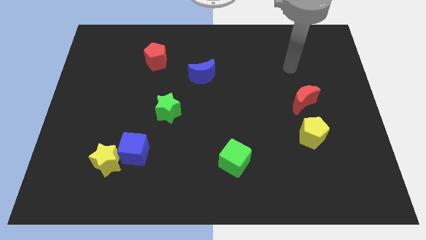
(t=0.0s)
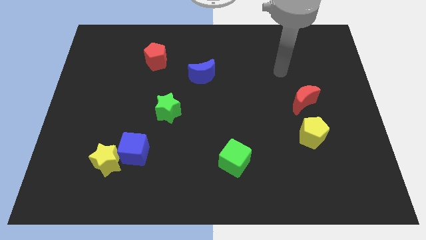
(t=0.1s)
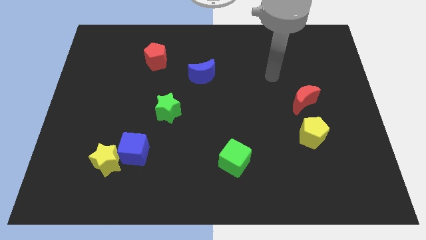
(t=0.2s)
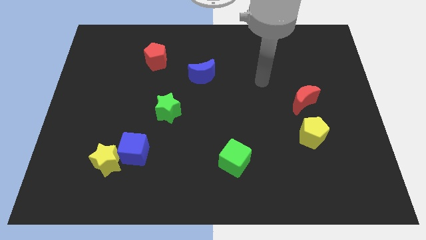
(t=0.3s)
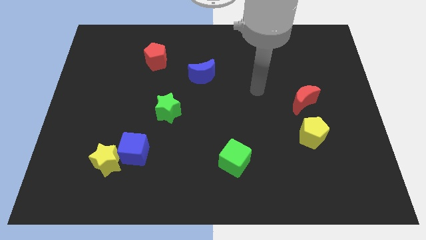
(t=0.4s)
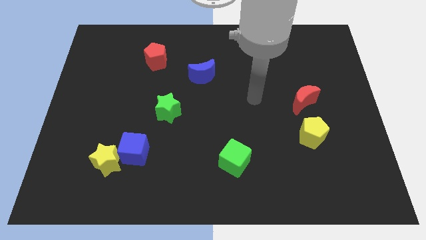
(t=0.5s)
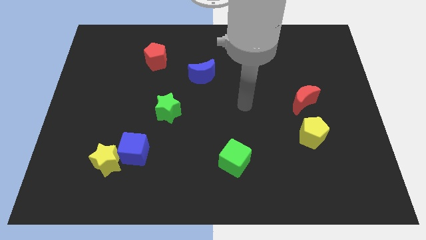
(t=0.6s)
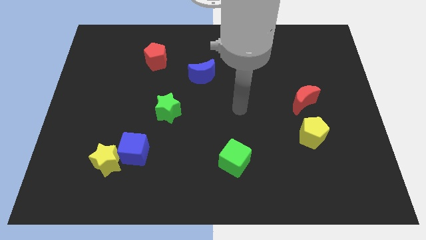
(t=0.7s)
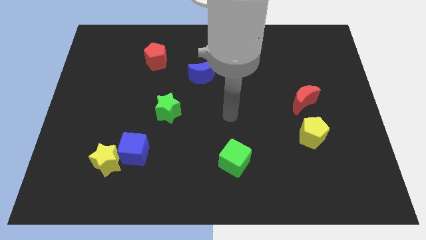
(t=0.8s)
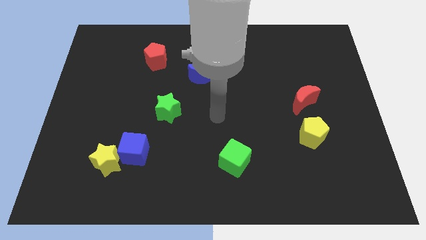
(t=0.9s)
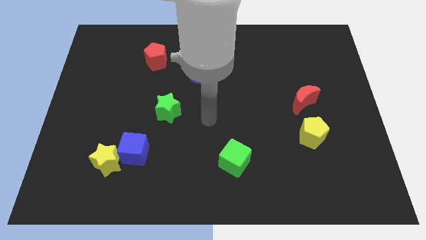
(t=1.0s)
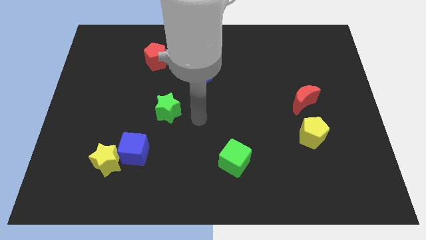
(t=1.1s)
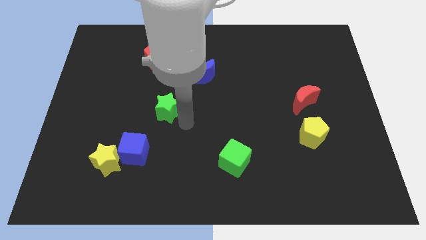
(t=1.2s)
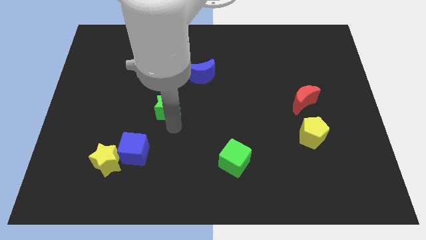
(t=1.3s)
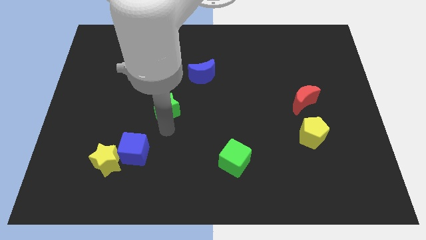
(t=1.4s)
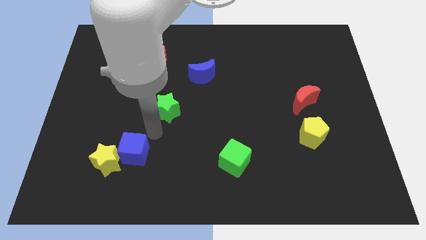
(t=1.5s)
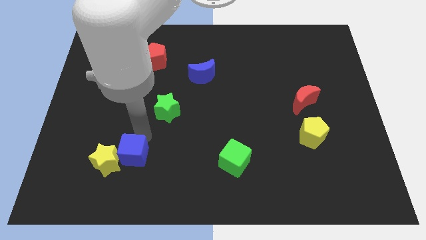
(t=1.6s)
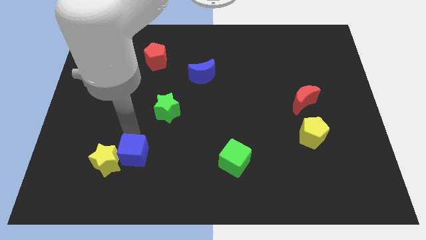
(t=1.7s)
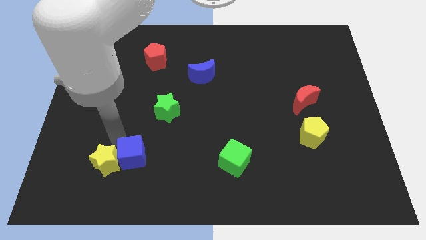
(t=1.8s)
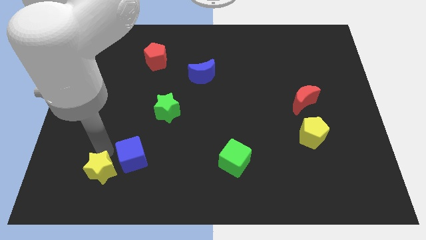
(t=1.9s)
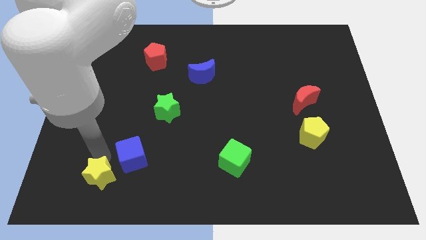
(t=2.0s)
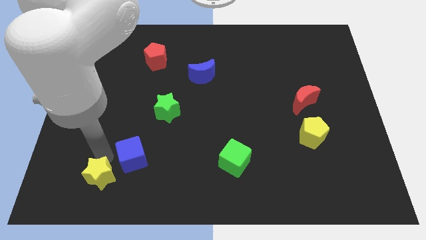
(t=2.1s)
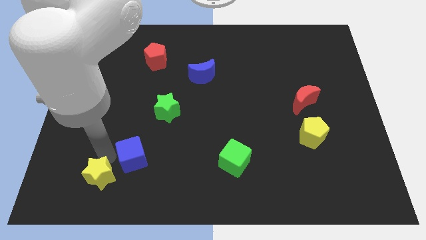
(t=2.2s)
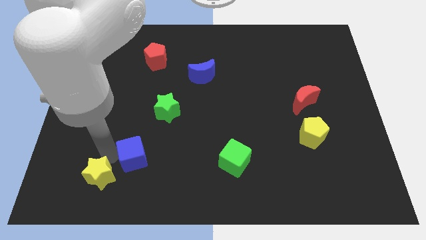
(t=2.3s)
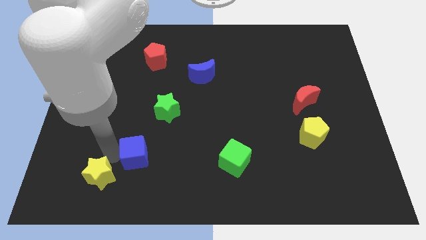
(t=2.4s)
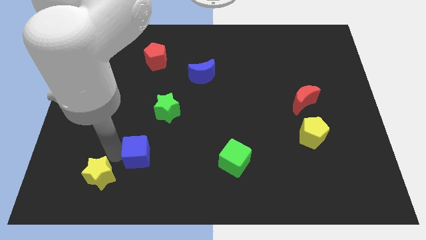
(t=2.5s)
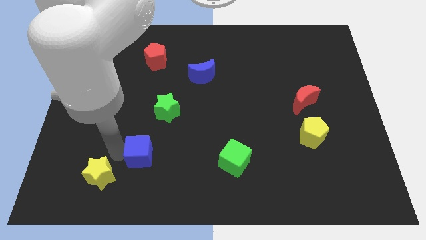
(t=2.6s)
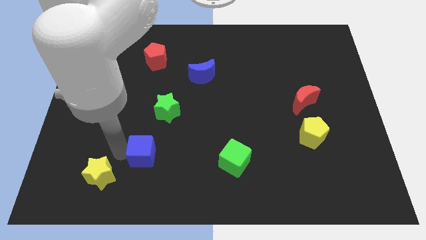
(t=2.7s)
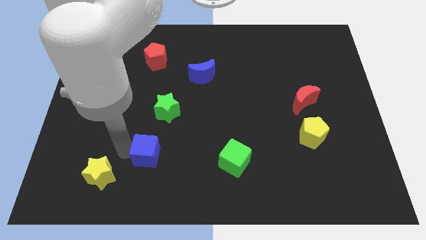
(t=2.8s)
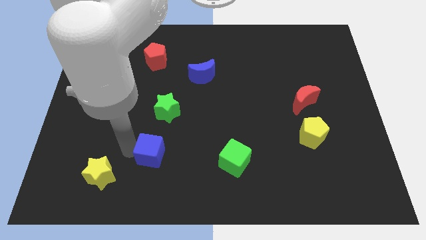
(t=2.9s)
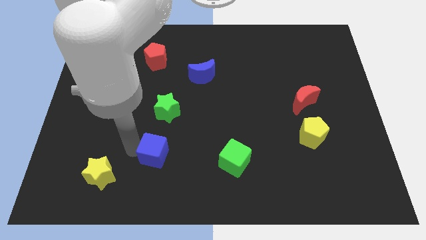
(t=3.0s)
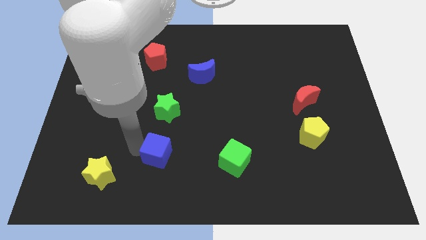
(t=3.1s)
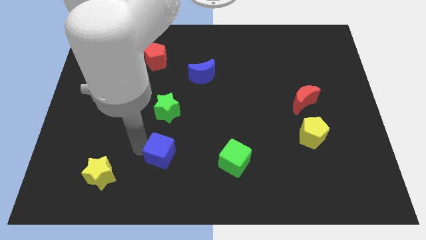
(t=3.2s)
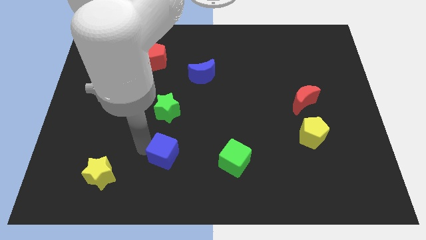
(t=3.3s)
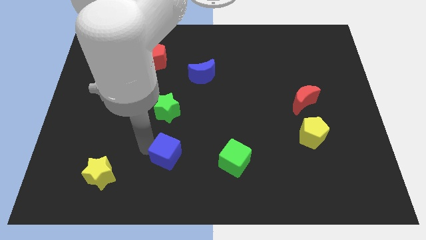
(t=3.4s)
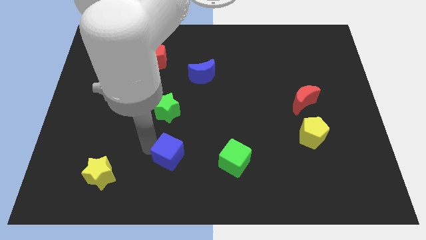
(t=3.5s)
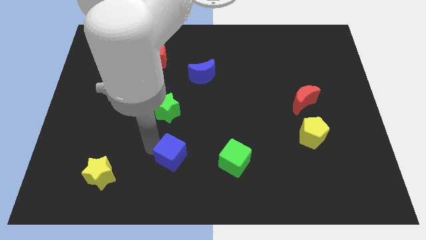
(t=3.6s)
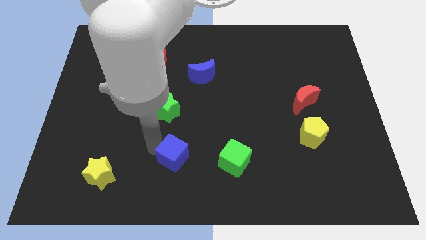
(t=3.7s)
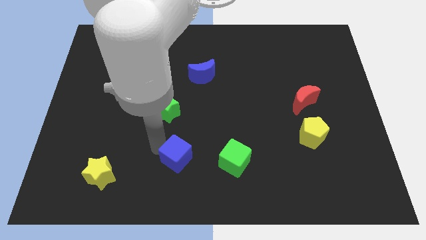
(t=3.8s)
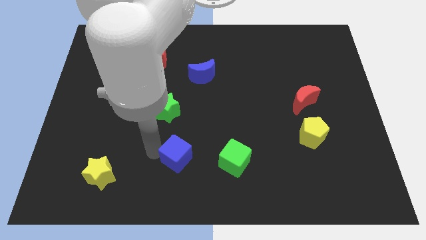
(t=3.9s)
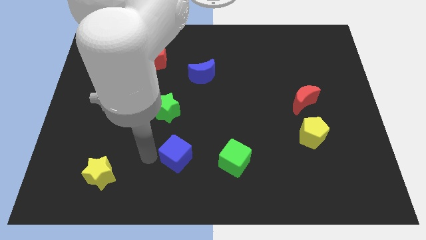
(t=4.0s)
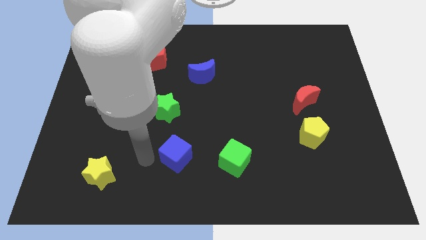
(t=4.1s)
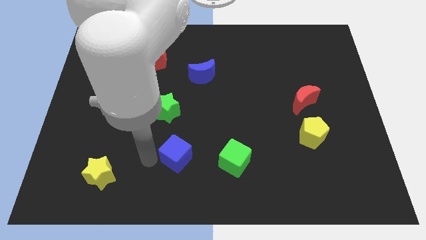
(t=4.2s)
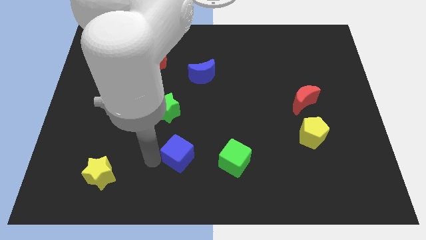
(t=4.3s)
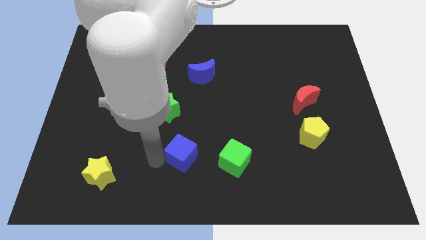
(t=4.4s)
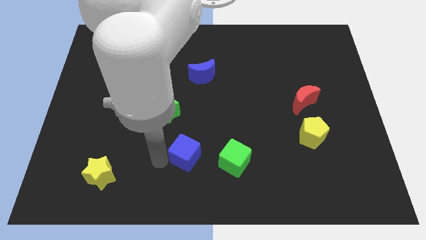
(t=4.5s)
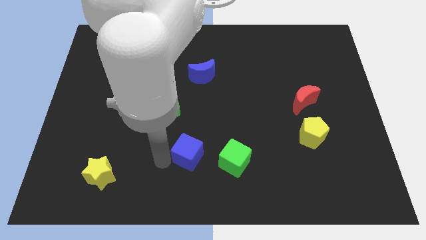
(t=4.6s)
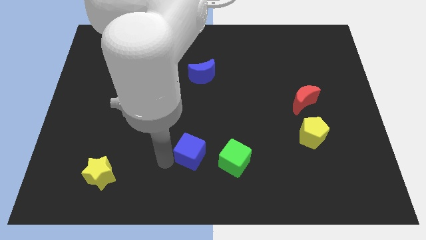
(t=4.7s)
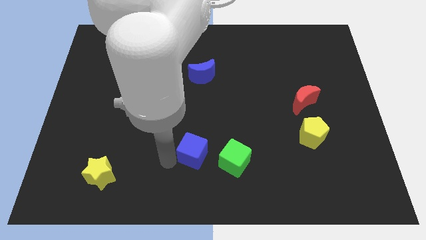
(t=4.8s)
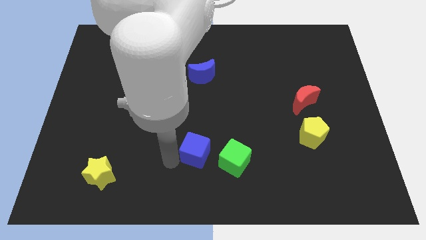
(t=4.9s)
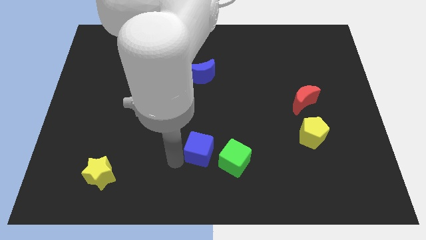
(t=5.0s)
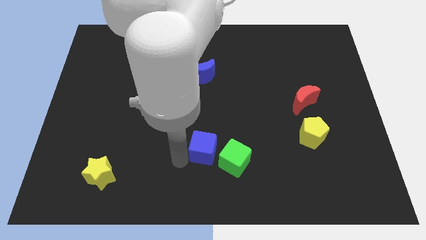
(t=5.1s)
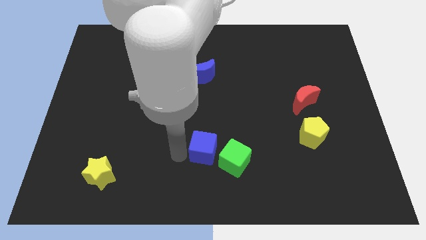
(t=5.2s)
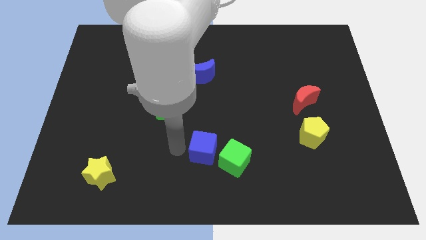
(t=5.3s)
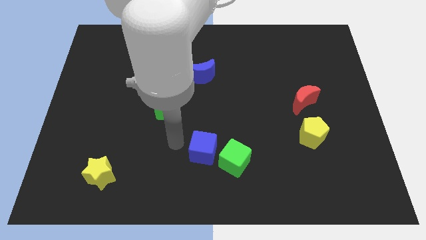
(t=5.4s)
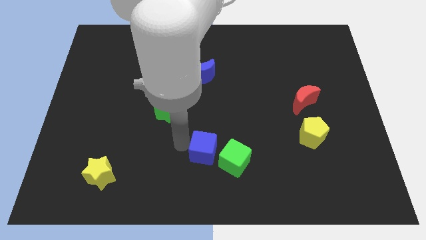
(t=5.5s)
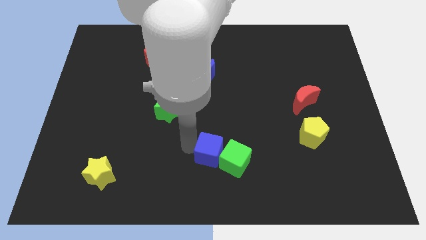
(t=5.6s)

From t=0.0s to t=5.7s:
slide the blue cube close to the green cube

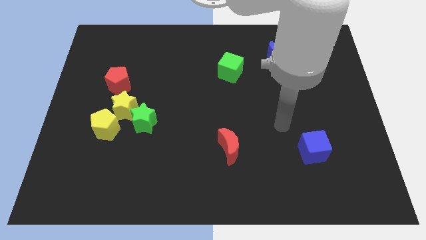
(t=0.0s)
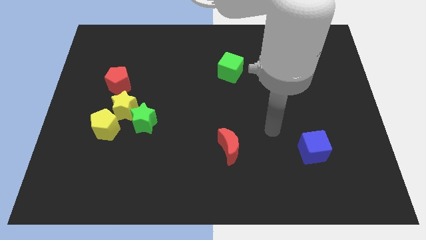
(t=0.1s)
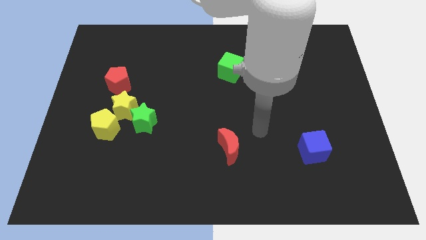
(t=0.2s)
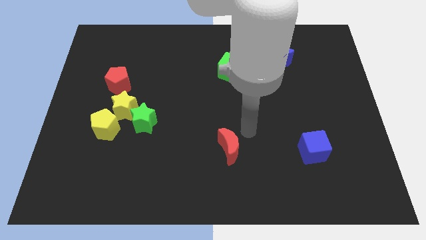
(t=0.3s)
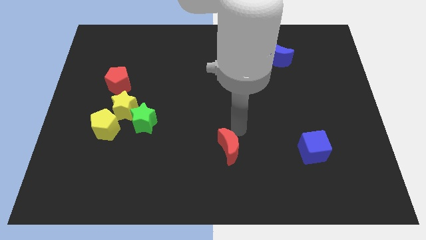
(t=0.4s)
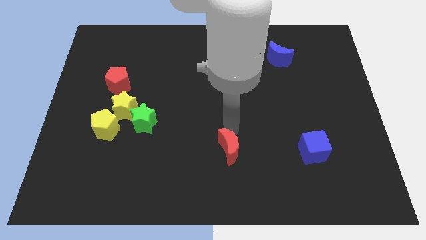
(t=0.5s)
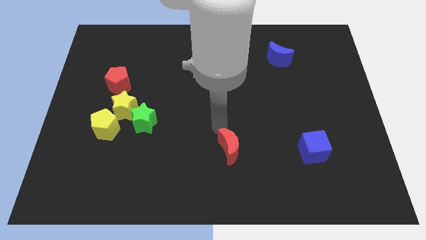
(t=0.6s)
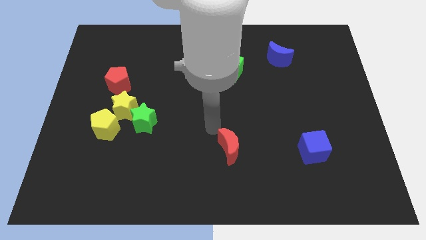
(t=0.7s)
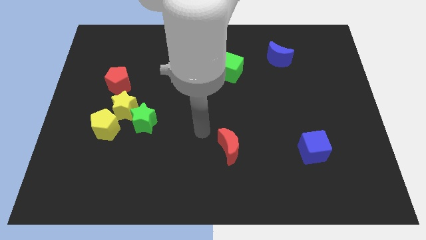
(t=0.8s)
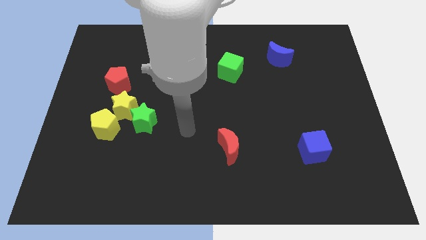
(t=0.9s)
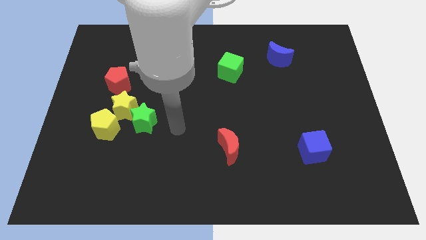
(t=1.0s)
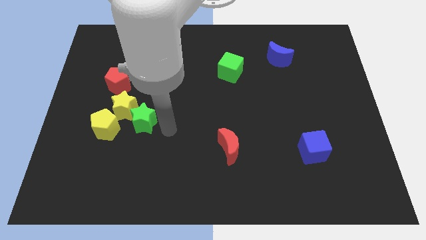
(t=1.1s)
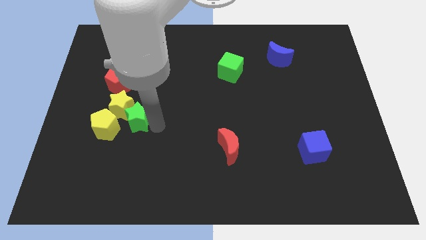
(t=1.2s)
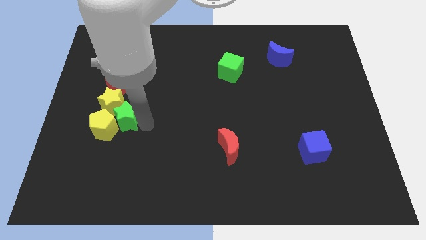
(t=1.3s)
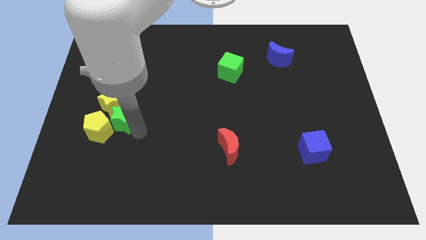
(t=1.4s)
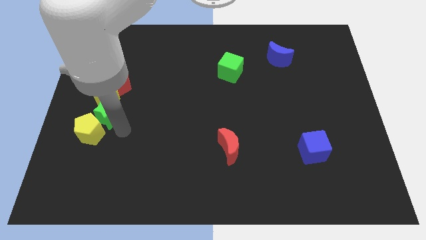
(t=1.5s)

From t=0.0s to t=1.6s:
push the yellow star next to the red pentagon
